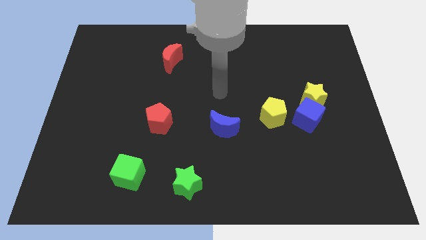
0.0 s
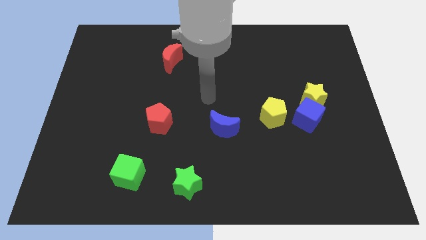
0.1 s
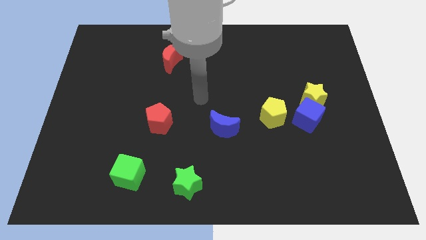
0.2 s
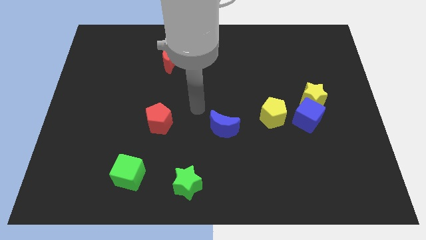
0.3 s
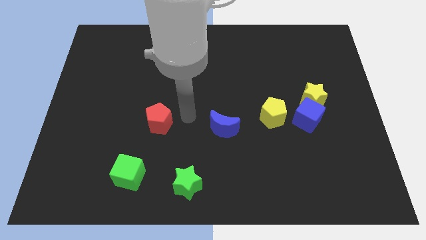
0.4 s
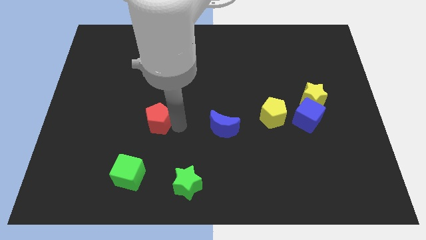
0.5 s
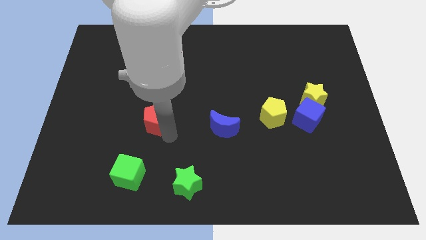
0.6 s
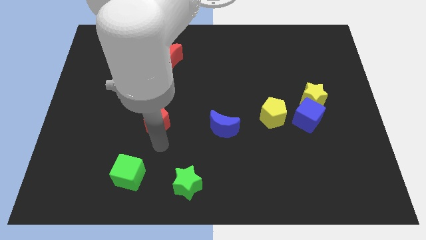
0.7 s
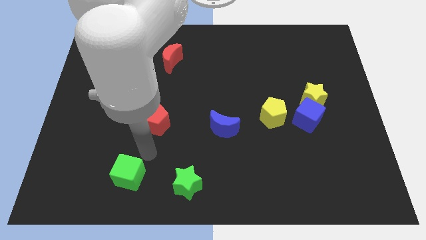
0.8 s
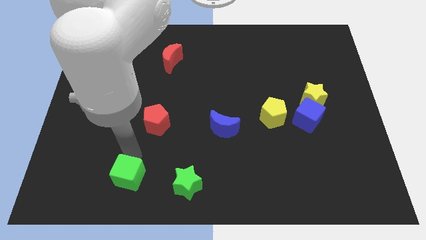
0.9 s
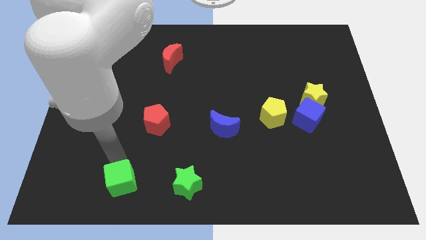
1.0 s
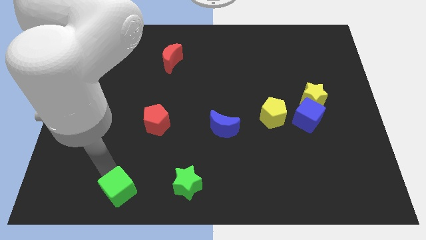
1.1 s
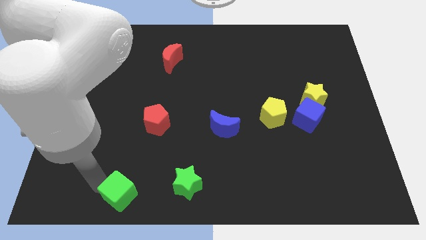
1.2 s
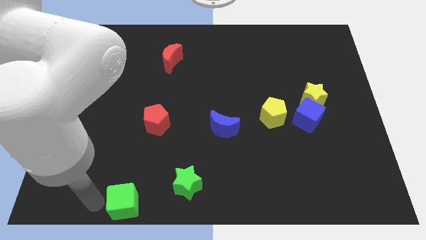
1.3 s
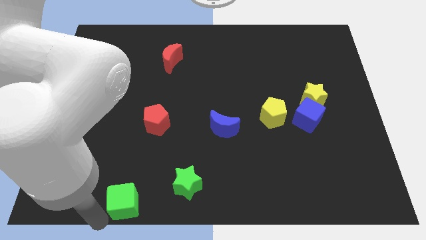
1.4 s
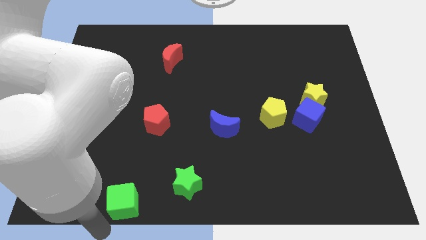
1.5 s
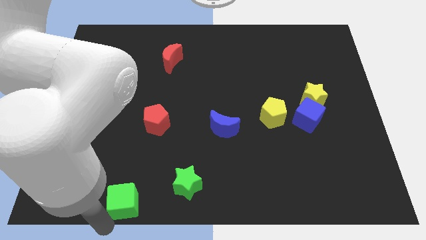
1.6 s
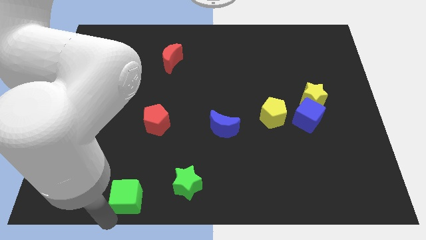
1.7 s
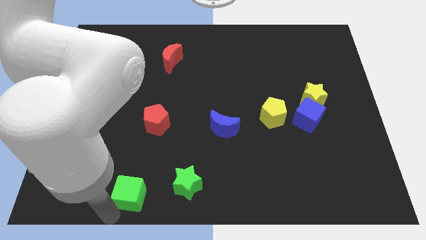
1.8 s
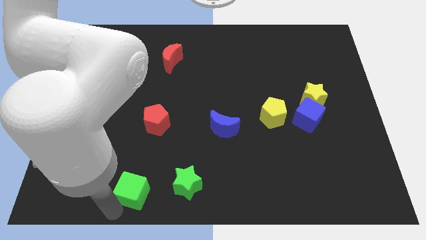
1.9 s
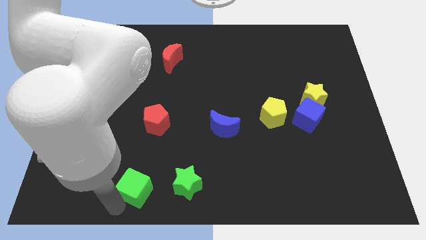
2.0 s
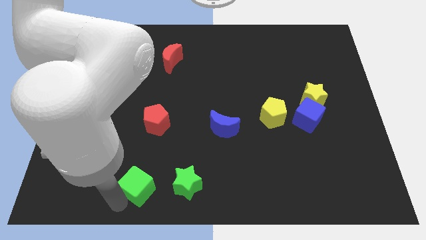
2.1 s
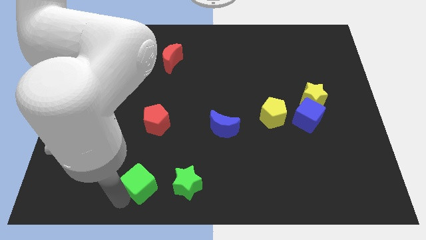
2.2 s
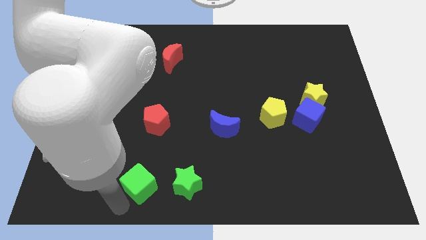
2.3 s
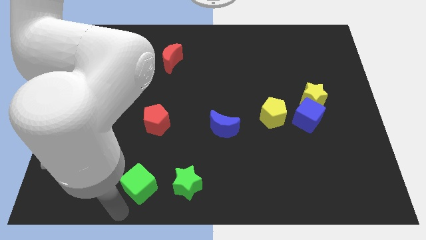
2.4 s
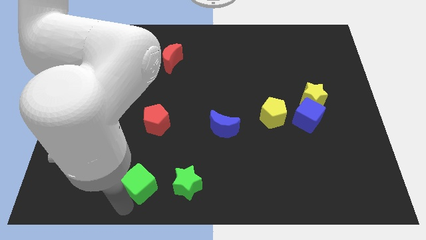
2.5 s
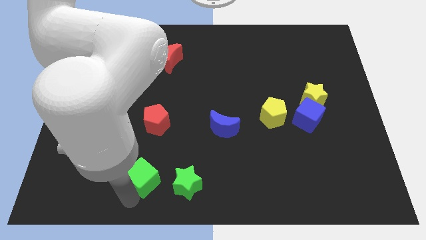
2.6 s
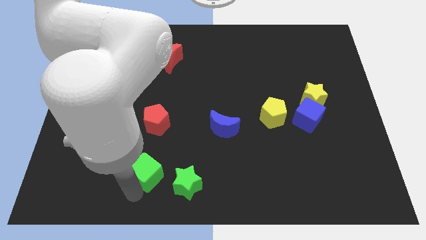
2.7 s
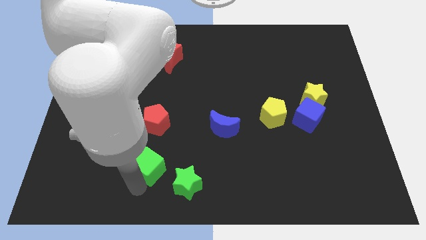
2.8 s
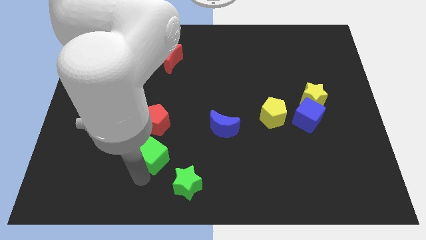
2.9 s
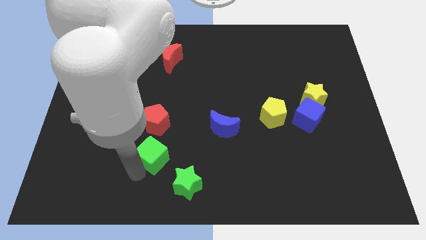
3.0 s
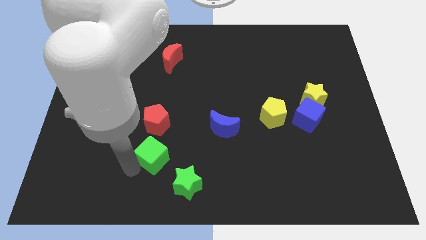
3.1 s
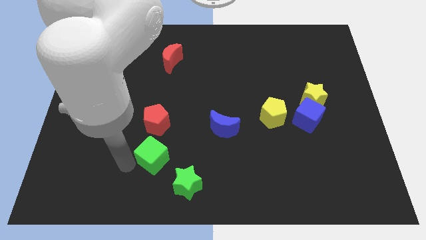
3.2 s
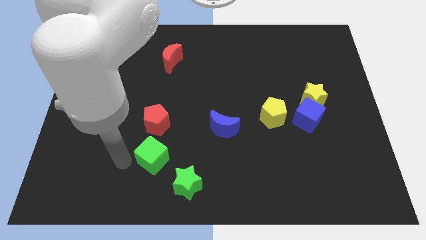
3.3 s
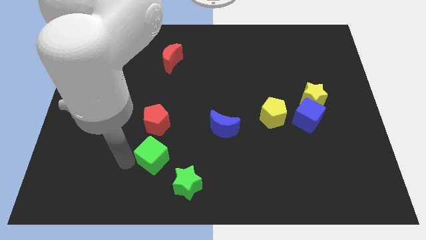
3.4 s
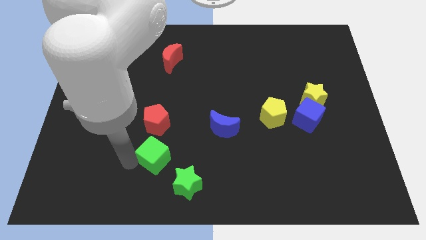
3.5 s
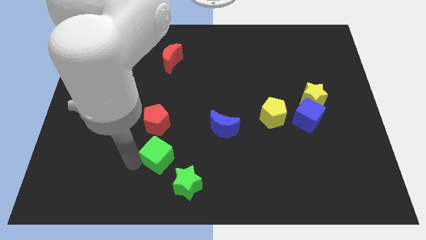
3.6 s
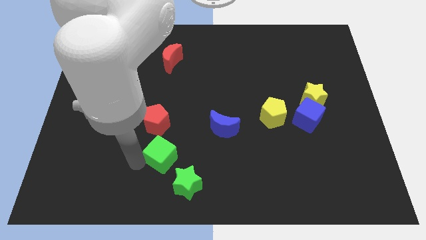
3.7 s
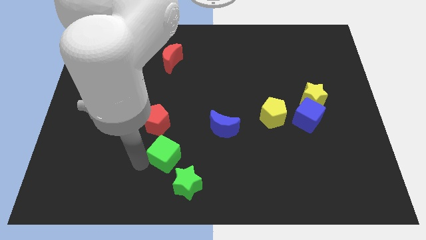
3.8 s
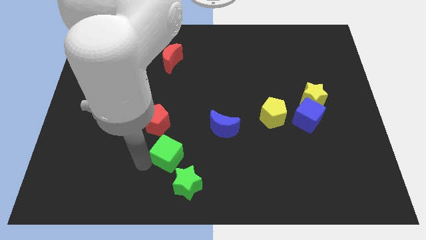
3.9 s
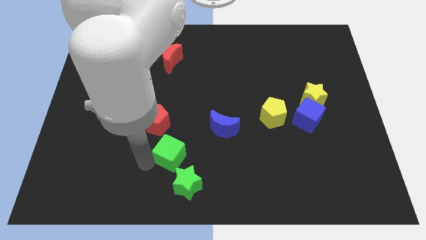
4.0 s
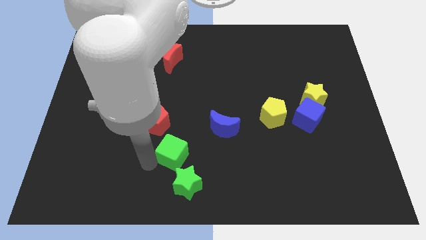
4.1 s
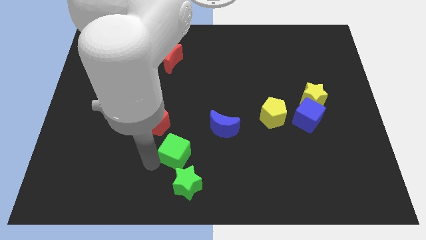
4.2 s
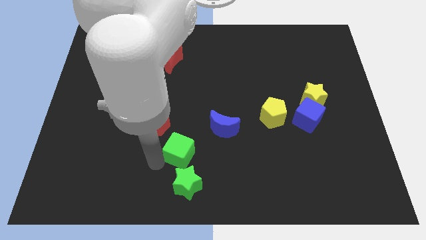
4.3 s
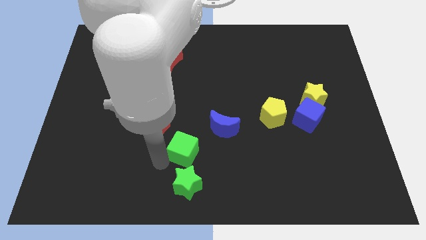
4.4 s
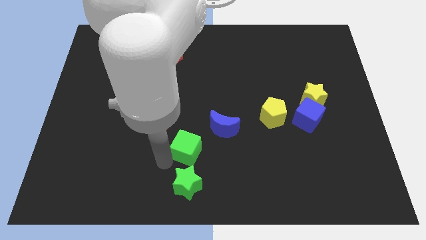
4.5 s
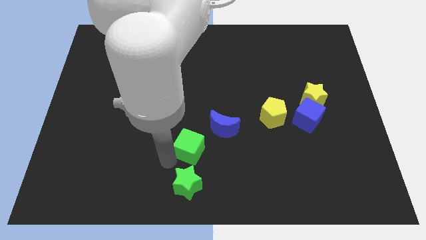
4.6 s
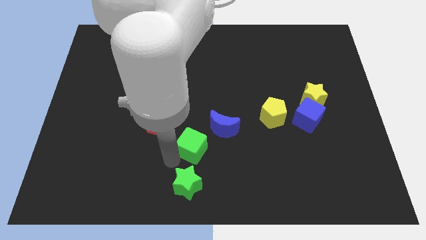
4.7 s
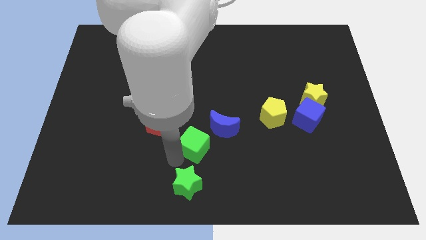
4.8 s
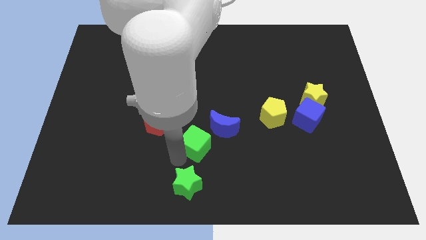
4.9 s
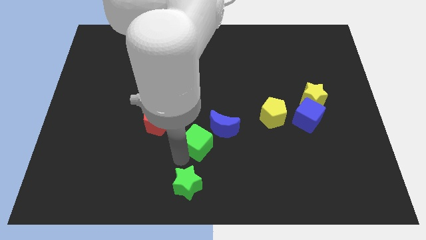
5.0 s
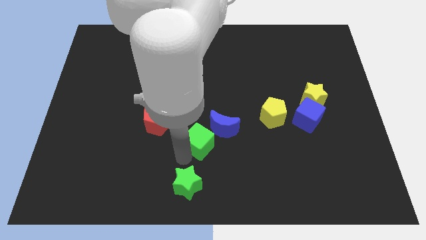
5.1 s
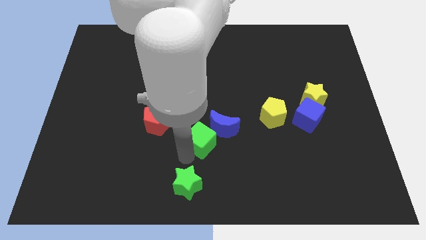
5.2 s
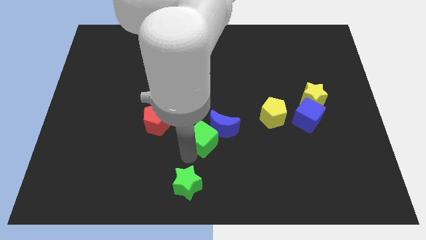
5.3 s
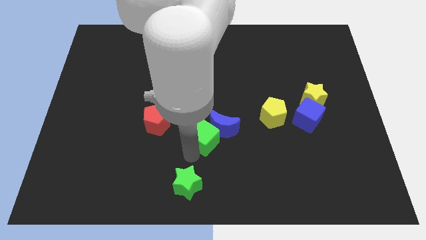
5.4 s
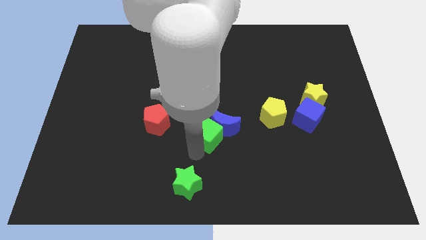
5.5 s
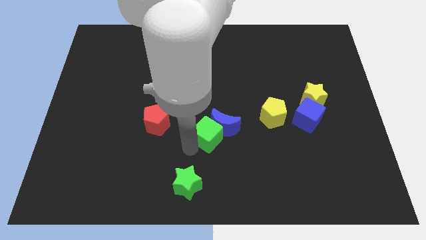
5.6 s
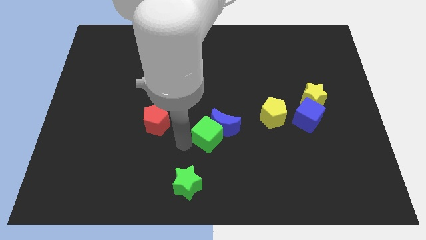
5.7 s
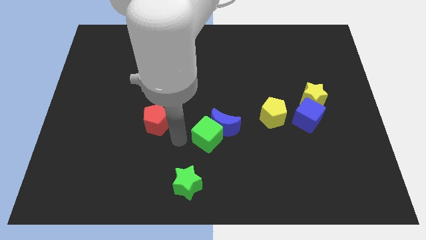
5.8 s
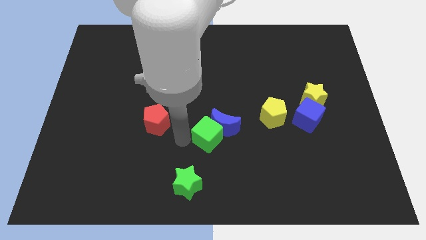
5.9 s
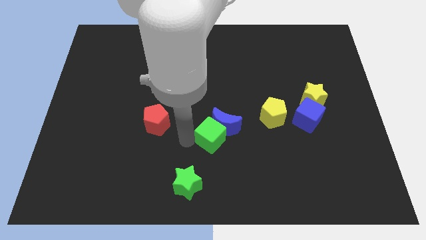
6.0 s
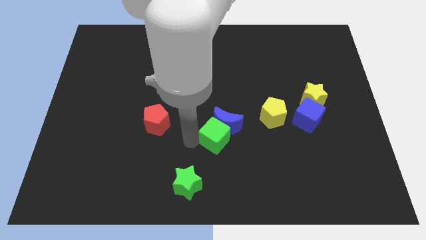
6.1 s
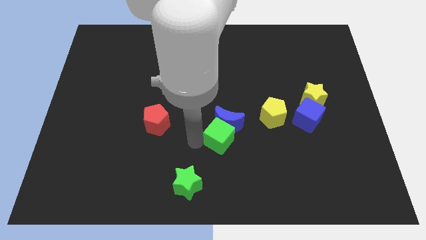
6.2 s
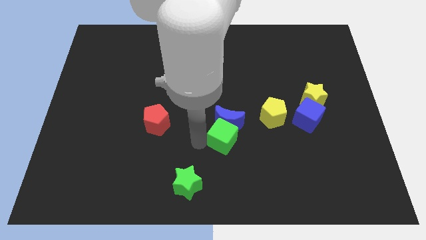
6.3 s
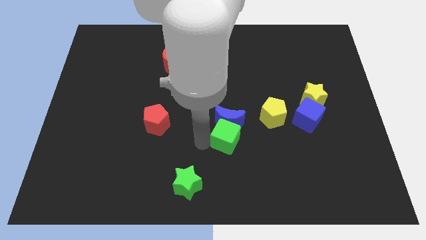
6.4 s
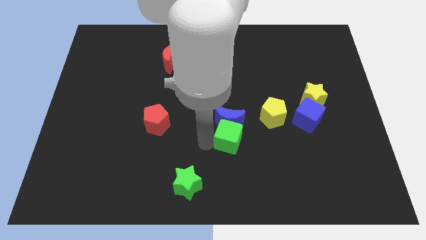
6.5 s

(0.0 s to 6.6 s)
slide the green cube to the bottom left side of the yellow pentagon

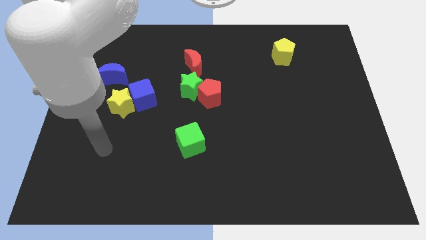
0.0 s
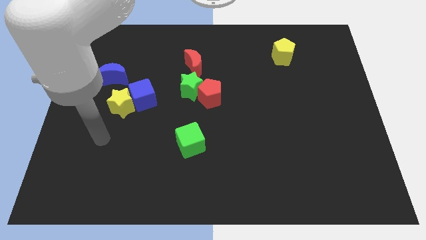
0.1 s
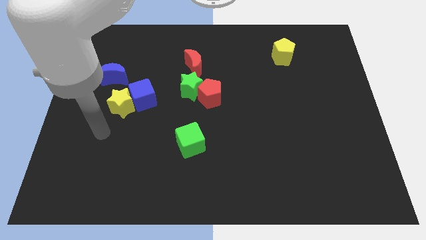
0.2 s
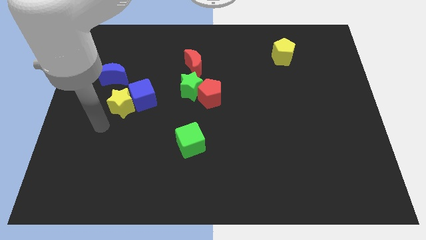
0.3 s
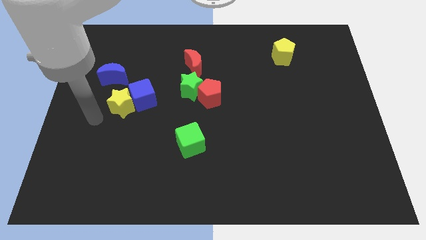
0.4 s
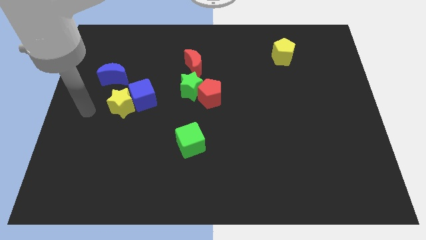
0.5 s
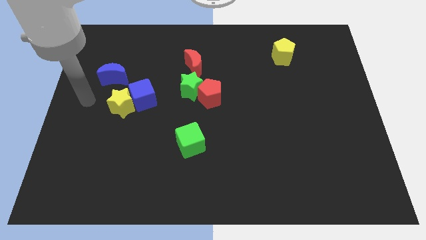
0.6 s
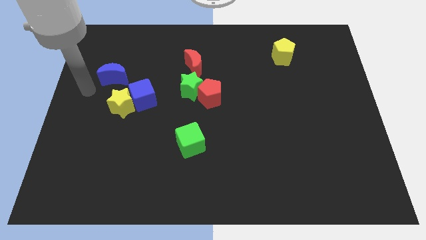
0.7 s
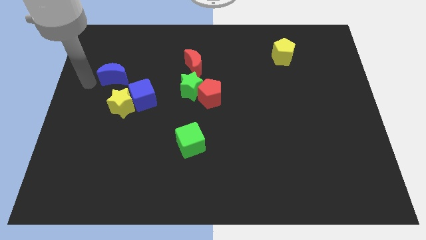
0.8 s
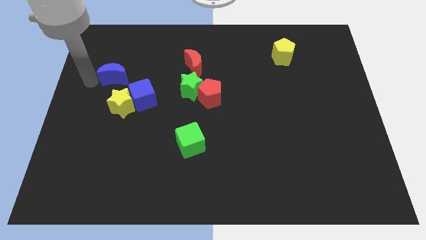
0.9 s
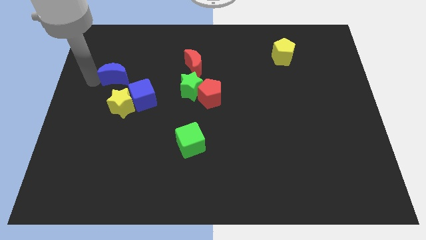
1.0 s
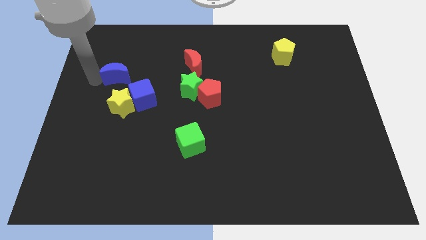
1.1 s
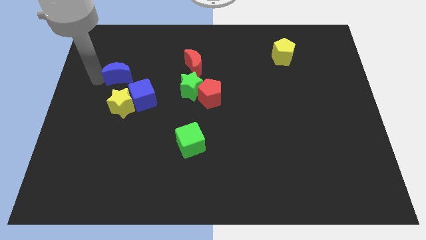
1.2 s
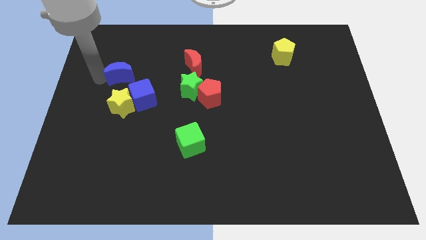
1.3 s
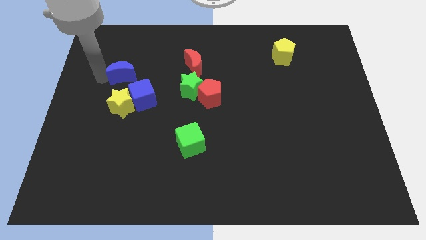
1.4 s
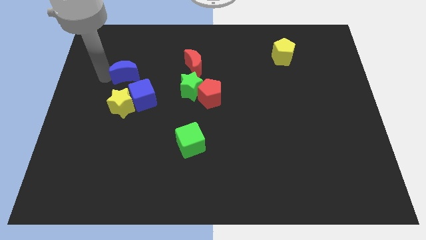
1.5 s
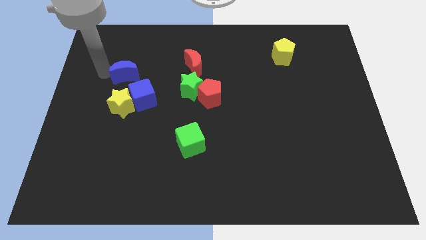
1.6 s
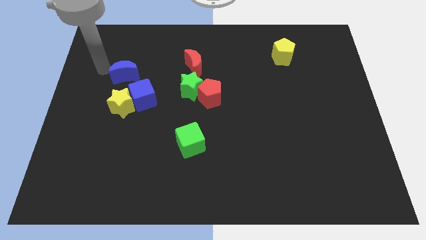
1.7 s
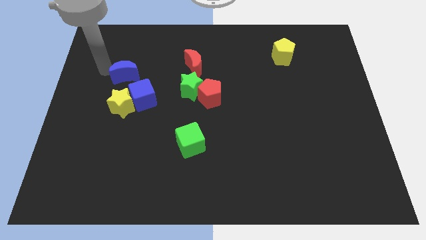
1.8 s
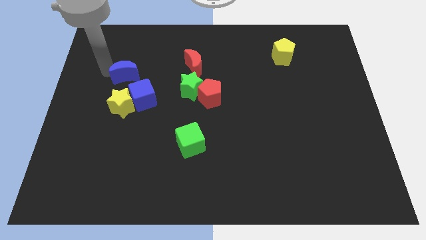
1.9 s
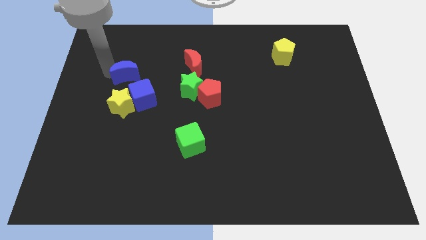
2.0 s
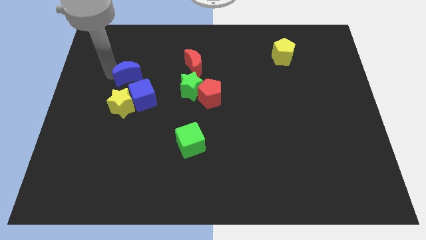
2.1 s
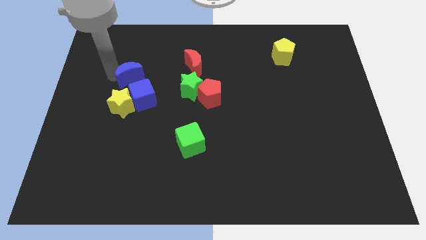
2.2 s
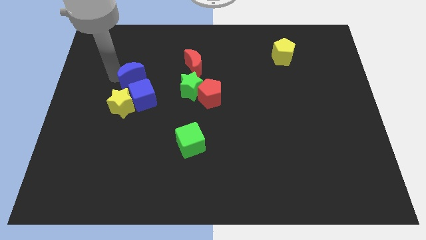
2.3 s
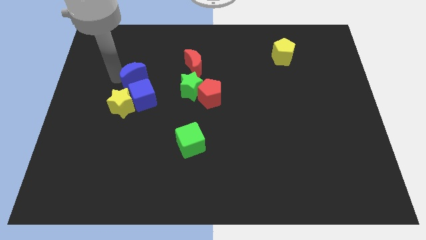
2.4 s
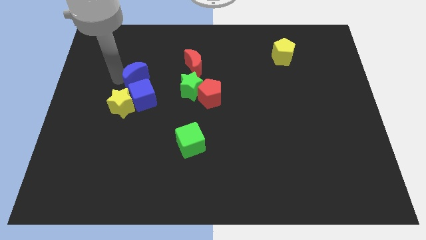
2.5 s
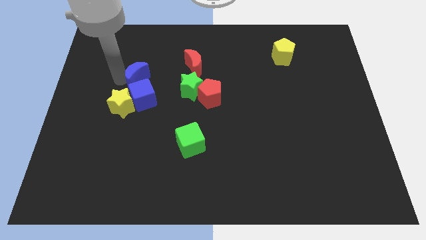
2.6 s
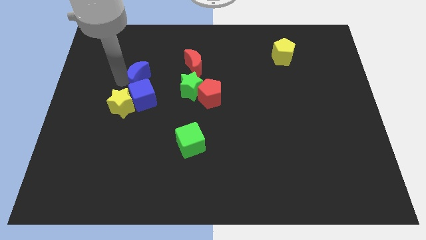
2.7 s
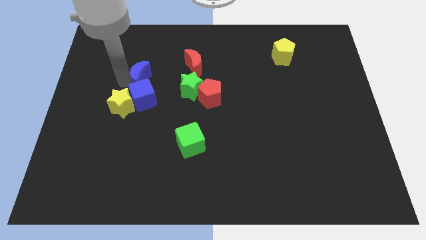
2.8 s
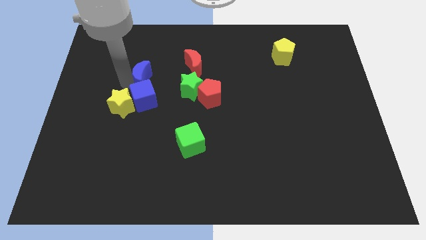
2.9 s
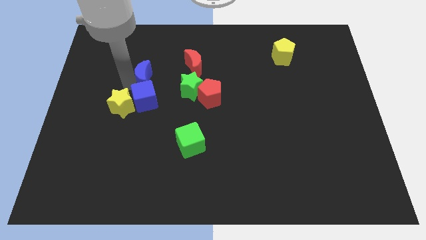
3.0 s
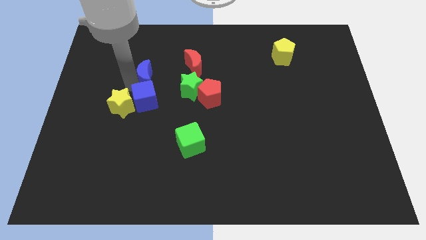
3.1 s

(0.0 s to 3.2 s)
push the blue moon to the top right side of the blue cube
